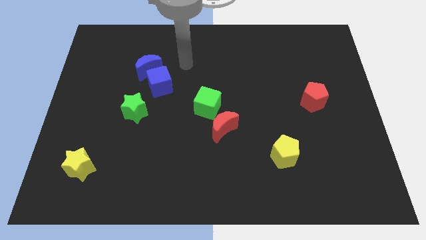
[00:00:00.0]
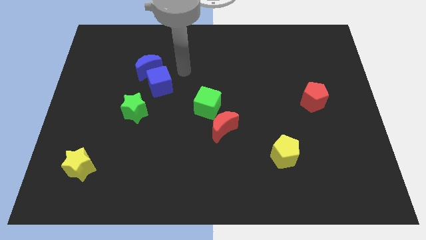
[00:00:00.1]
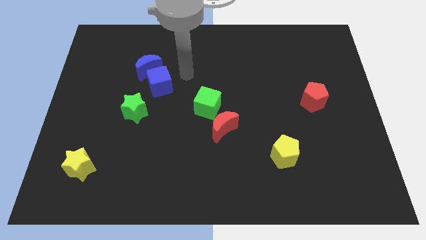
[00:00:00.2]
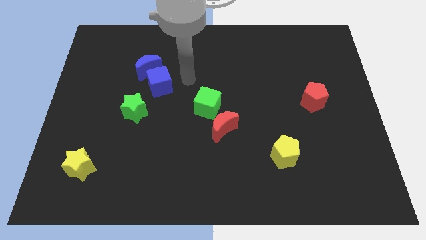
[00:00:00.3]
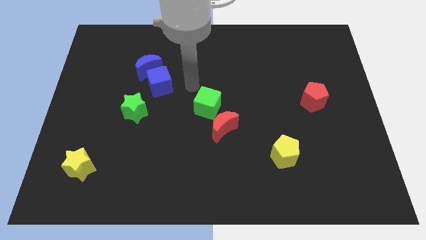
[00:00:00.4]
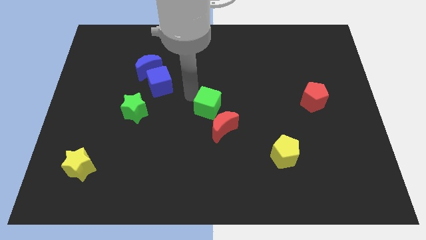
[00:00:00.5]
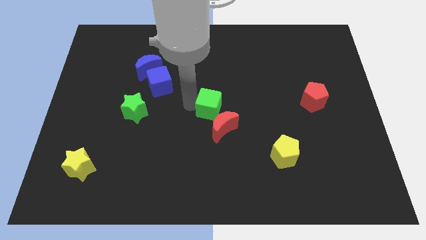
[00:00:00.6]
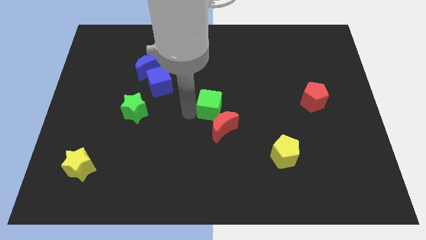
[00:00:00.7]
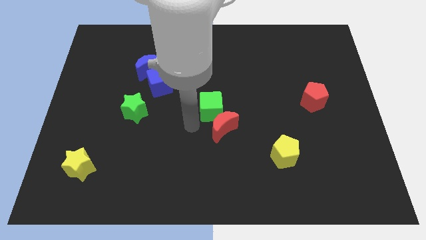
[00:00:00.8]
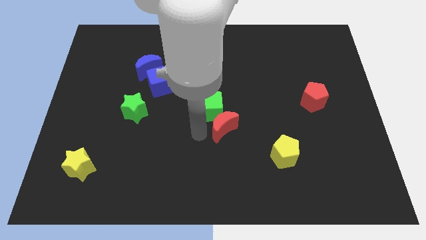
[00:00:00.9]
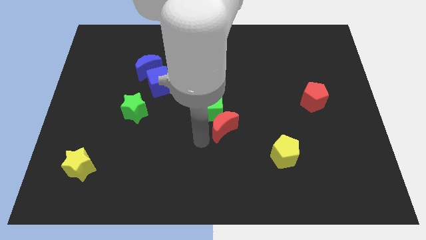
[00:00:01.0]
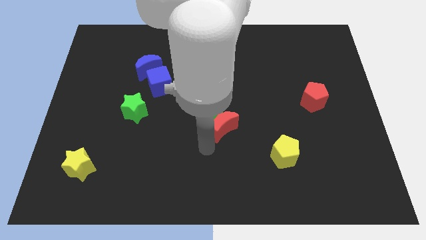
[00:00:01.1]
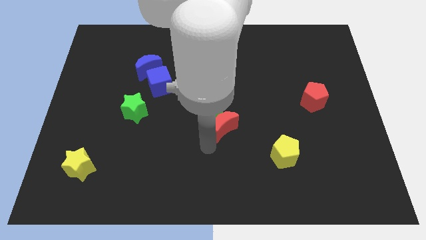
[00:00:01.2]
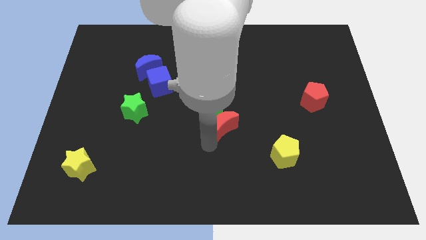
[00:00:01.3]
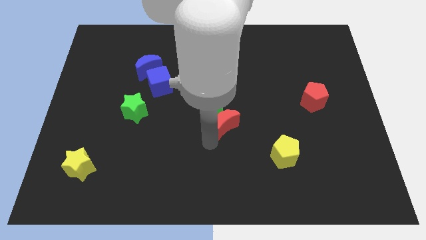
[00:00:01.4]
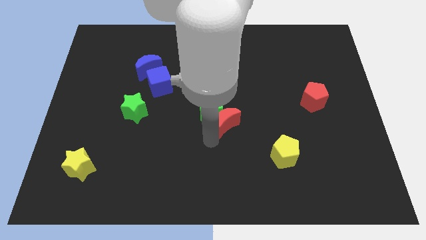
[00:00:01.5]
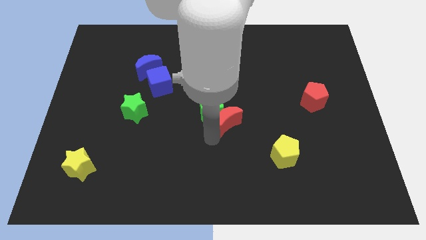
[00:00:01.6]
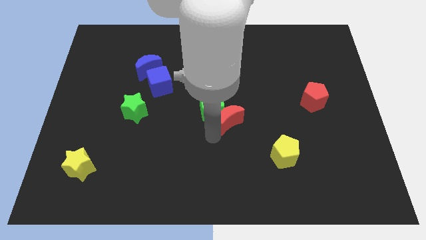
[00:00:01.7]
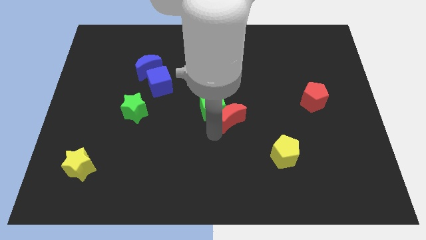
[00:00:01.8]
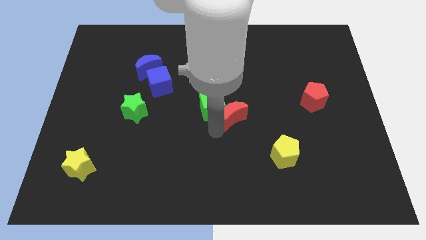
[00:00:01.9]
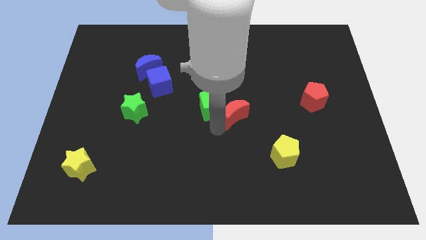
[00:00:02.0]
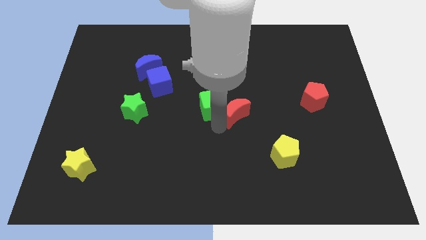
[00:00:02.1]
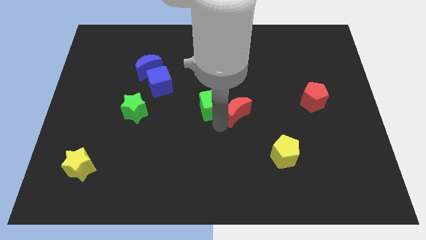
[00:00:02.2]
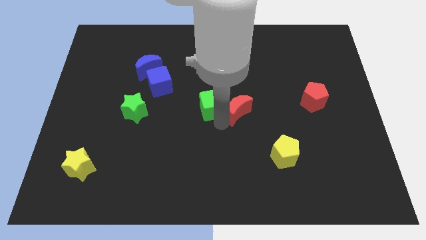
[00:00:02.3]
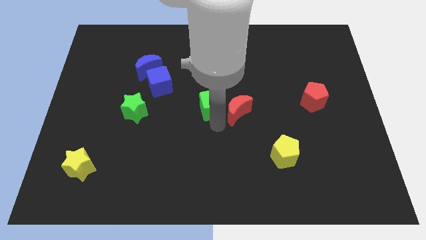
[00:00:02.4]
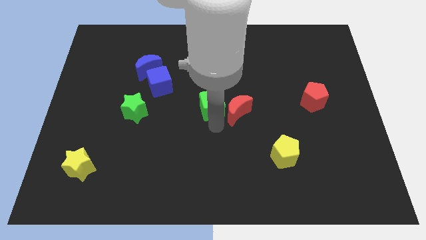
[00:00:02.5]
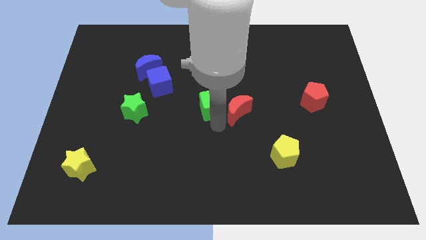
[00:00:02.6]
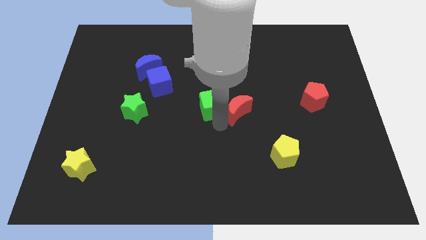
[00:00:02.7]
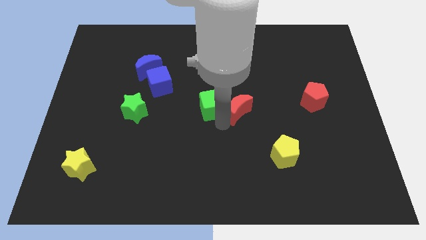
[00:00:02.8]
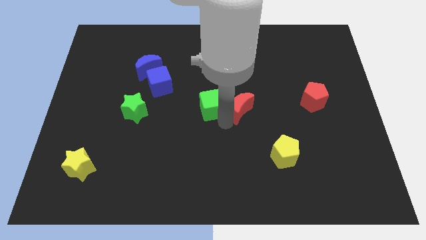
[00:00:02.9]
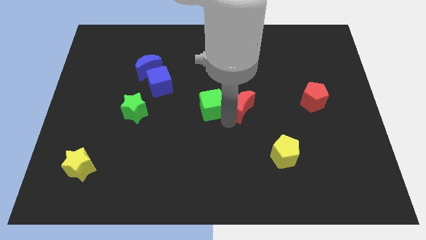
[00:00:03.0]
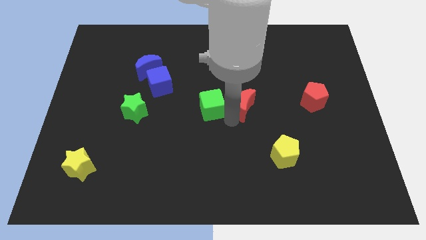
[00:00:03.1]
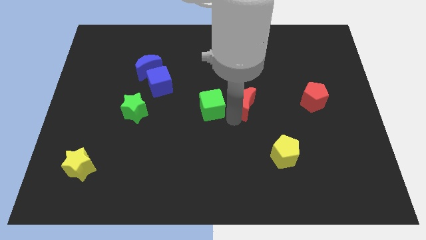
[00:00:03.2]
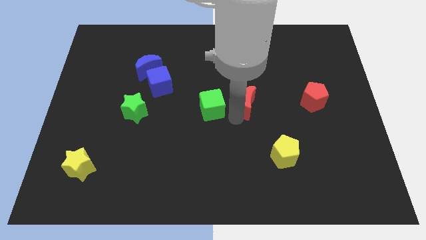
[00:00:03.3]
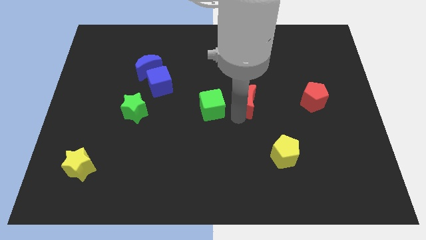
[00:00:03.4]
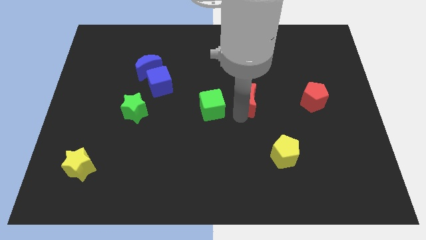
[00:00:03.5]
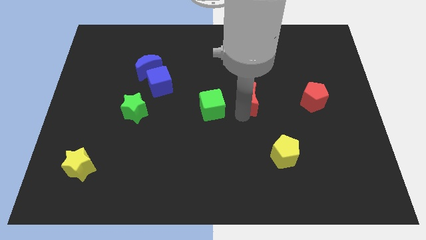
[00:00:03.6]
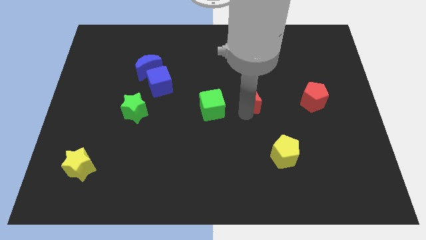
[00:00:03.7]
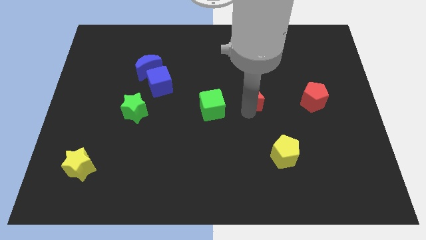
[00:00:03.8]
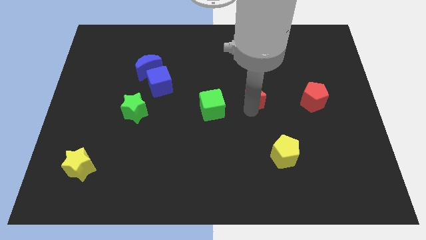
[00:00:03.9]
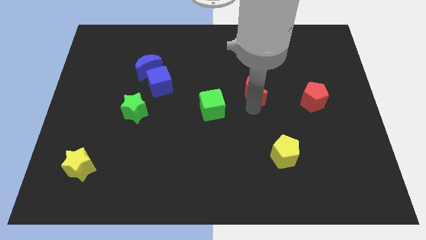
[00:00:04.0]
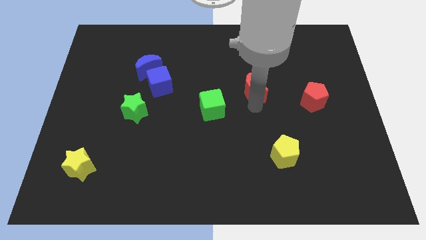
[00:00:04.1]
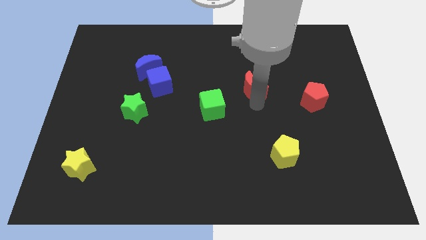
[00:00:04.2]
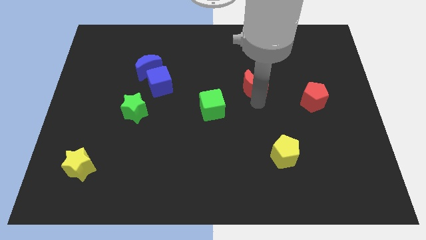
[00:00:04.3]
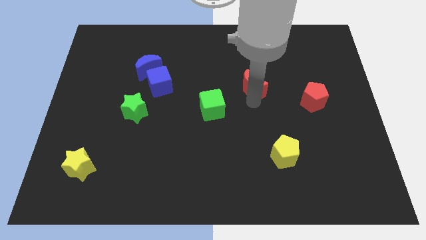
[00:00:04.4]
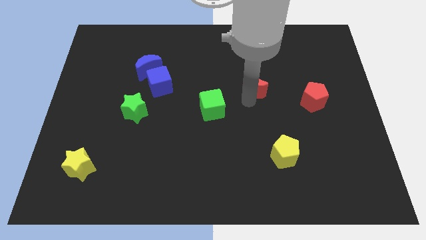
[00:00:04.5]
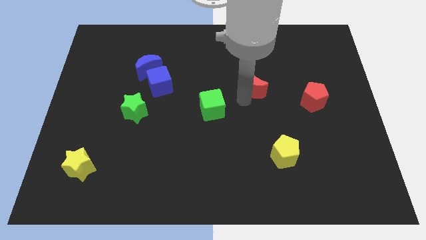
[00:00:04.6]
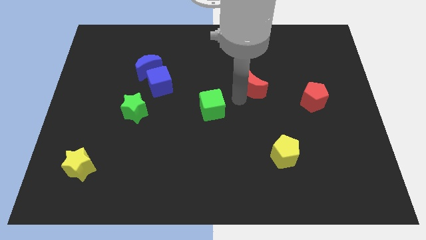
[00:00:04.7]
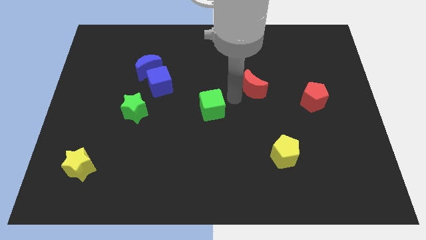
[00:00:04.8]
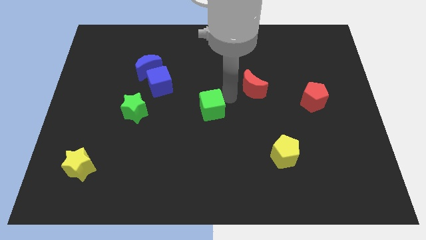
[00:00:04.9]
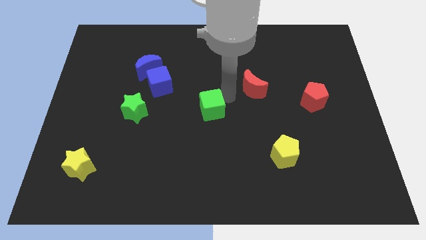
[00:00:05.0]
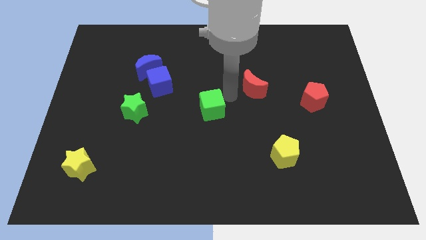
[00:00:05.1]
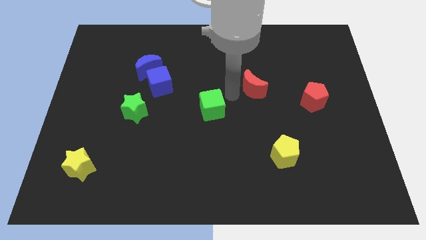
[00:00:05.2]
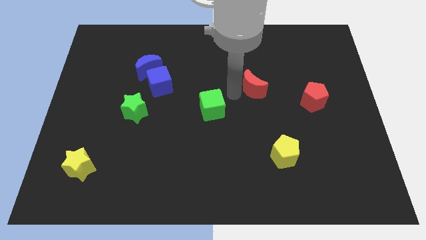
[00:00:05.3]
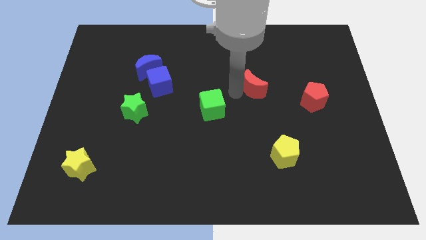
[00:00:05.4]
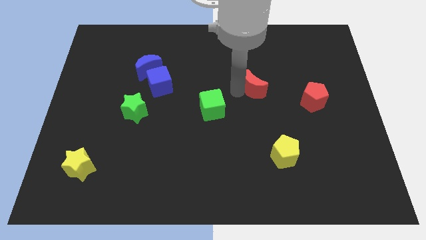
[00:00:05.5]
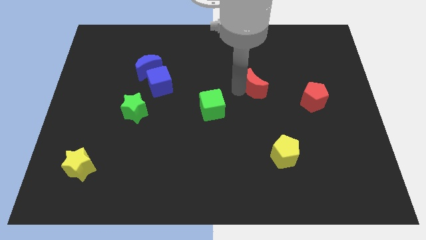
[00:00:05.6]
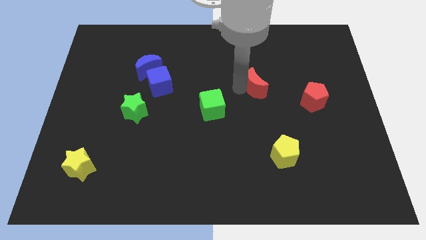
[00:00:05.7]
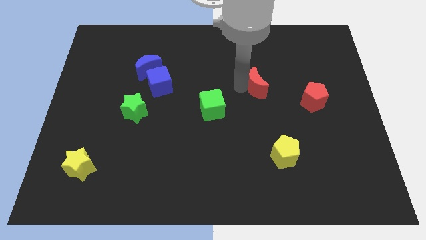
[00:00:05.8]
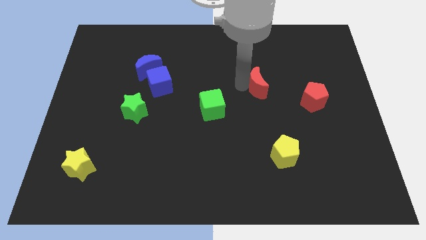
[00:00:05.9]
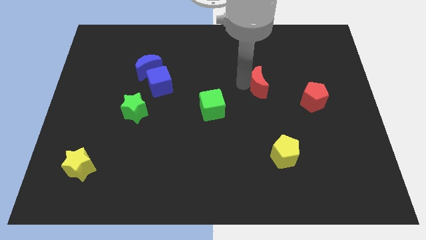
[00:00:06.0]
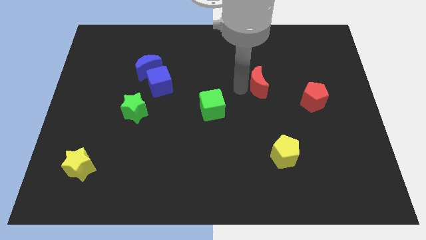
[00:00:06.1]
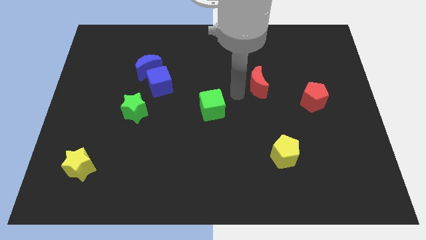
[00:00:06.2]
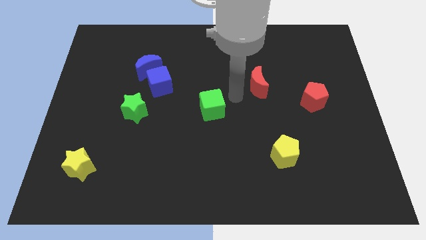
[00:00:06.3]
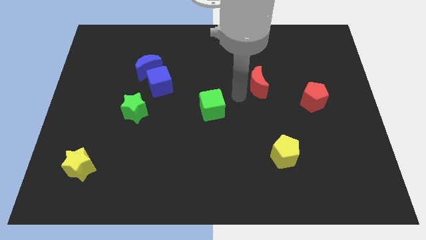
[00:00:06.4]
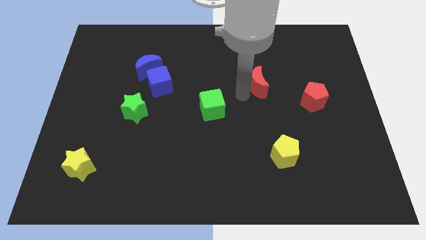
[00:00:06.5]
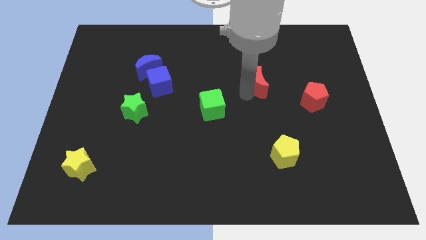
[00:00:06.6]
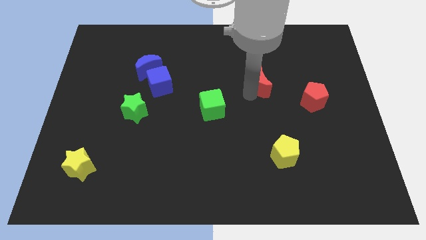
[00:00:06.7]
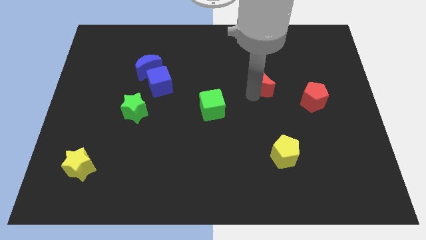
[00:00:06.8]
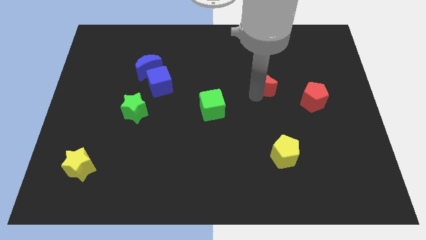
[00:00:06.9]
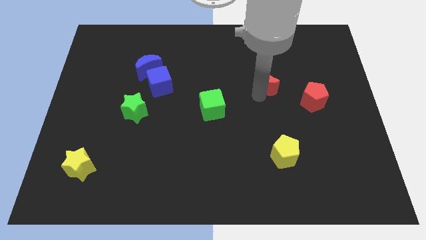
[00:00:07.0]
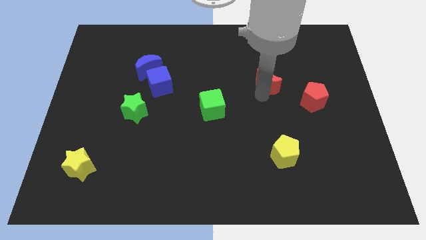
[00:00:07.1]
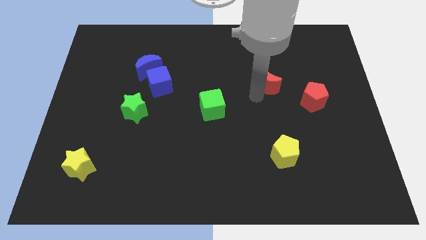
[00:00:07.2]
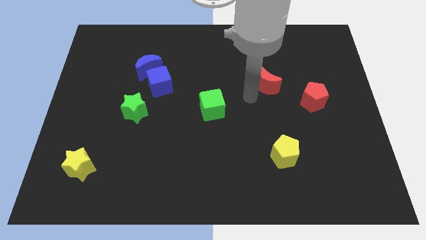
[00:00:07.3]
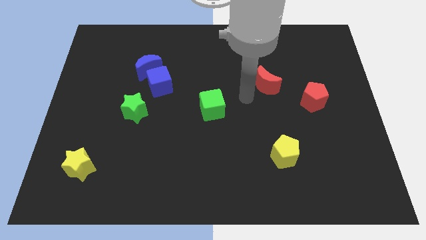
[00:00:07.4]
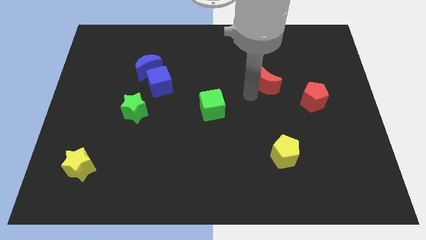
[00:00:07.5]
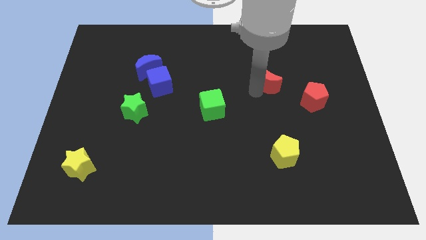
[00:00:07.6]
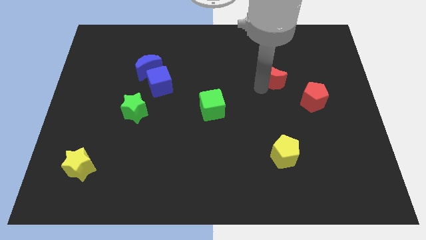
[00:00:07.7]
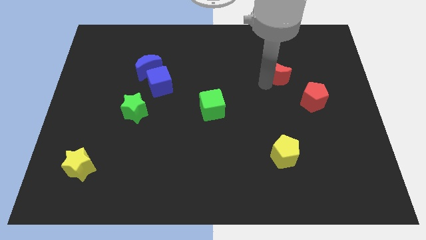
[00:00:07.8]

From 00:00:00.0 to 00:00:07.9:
slide the red moon up and then right
